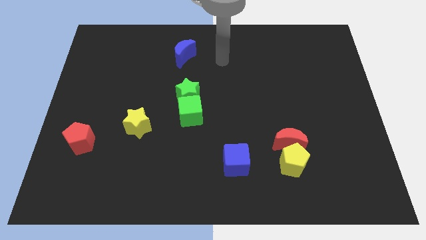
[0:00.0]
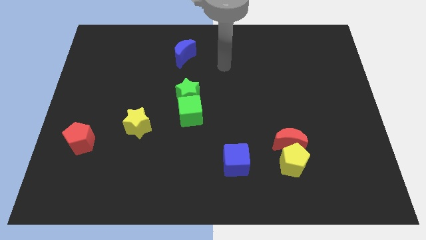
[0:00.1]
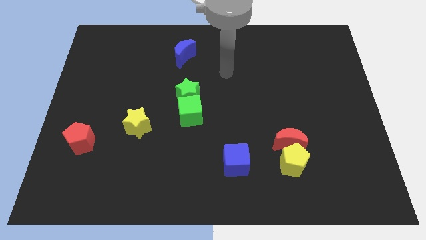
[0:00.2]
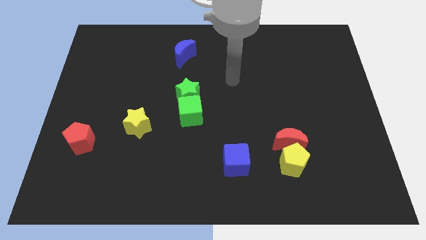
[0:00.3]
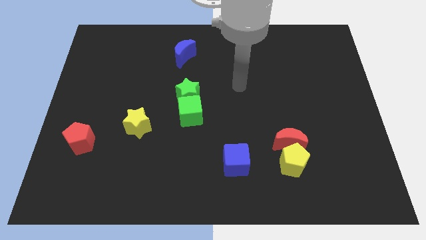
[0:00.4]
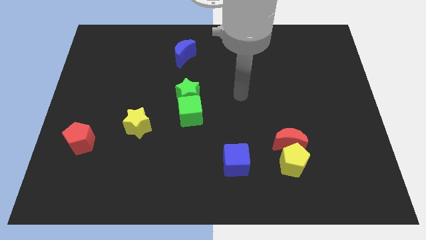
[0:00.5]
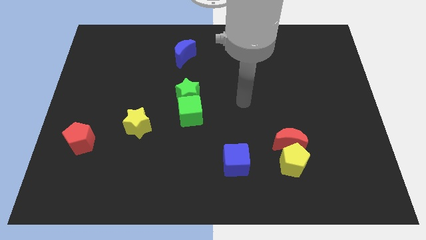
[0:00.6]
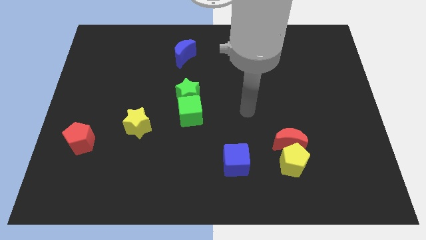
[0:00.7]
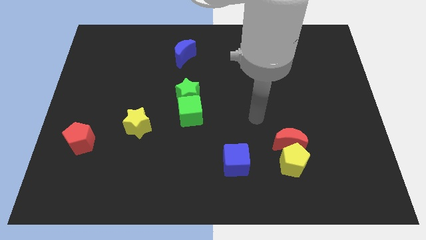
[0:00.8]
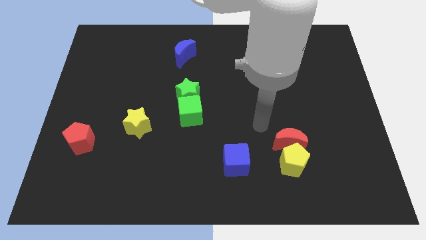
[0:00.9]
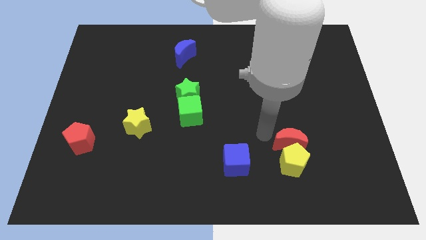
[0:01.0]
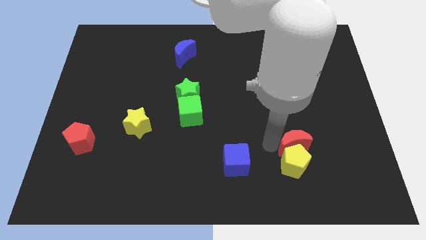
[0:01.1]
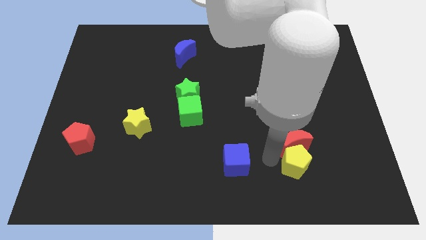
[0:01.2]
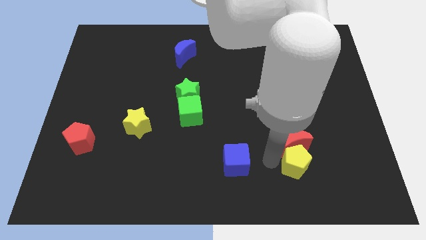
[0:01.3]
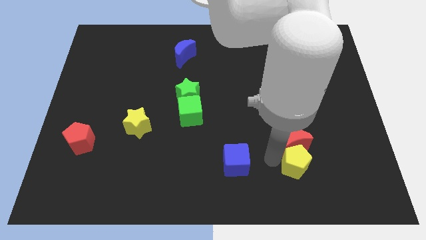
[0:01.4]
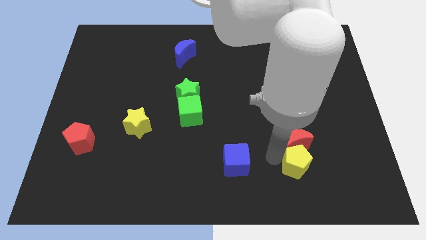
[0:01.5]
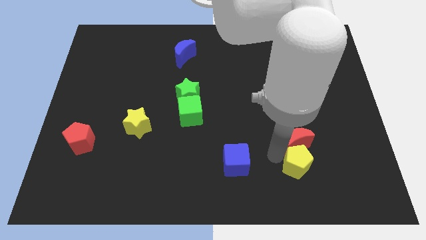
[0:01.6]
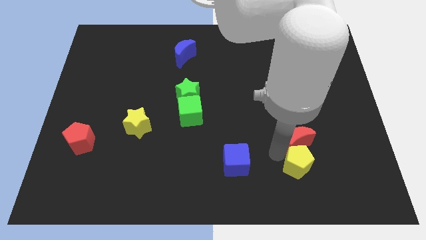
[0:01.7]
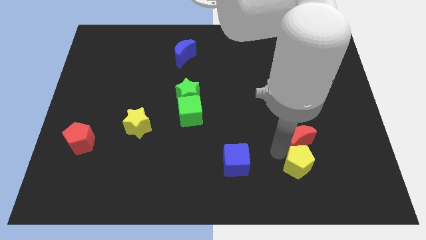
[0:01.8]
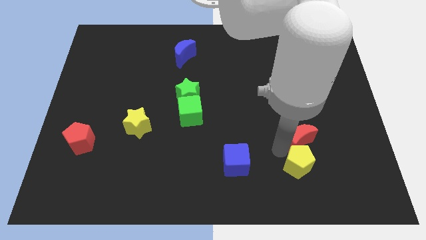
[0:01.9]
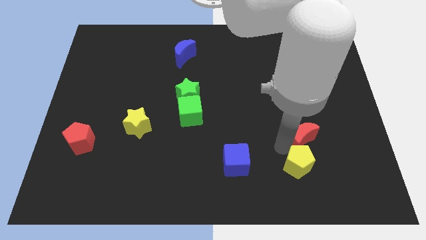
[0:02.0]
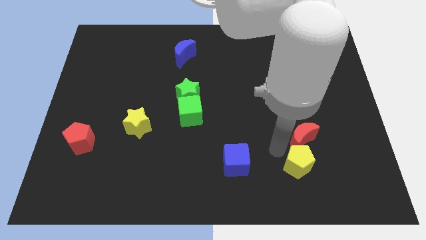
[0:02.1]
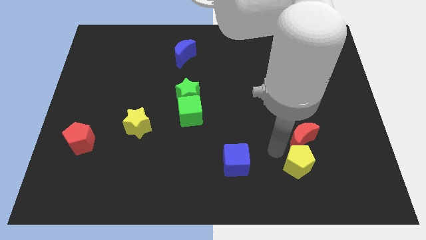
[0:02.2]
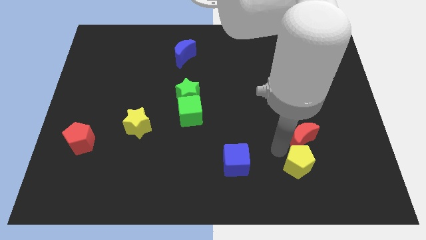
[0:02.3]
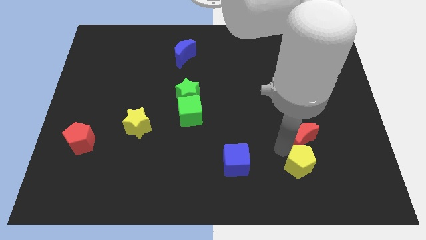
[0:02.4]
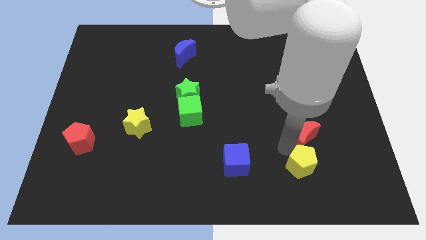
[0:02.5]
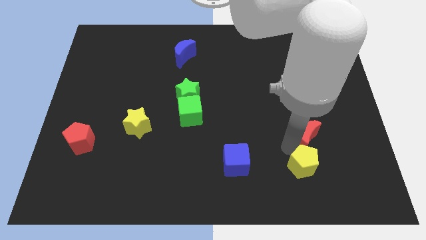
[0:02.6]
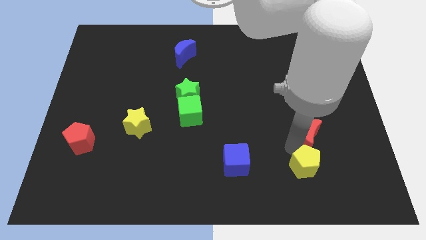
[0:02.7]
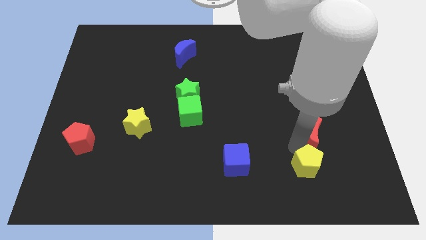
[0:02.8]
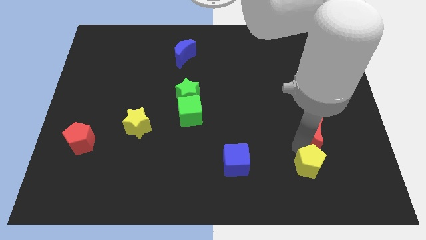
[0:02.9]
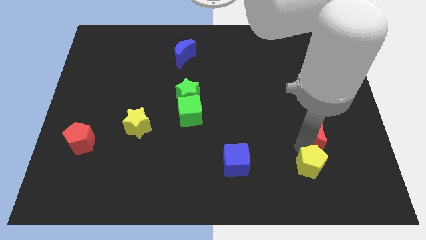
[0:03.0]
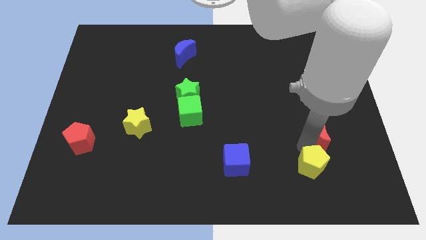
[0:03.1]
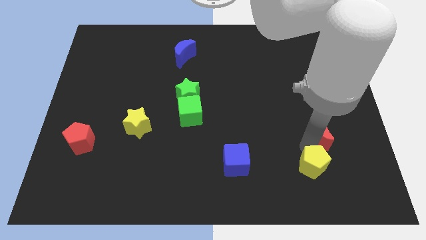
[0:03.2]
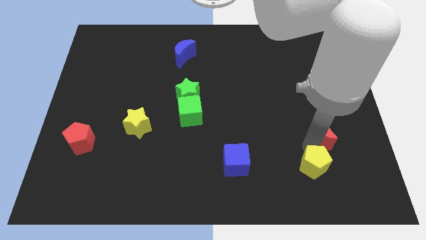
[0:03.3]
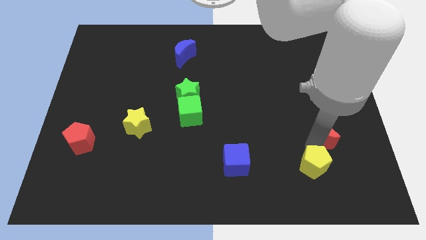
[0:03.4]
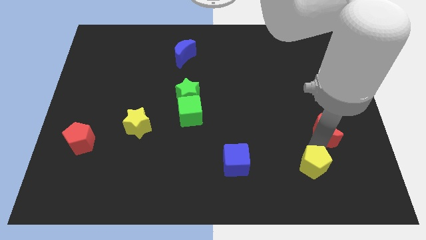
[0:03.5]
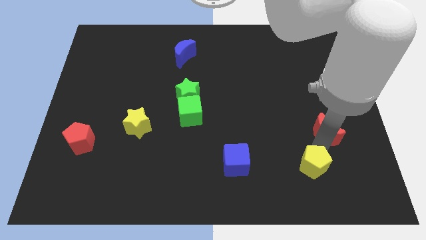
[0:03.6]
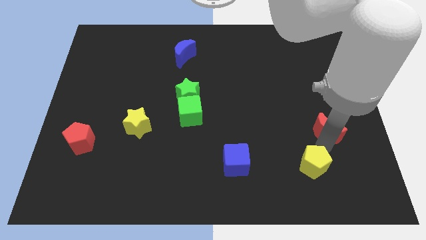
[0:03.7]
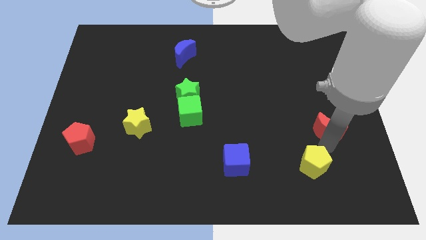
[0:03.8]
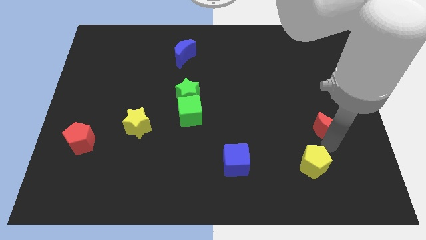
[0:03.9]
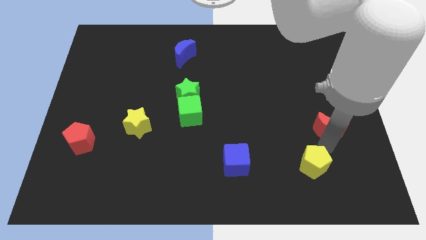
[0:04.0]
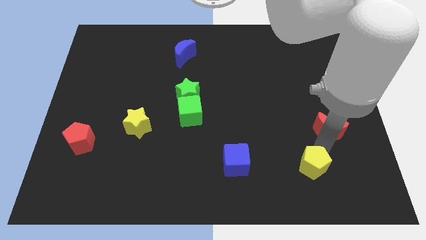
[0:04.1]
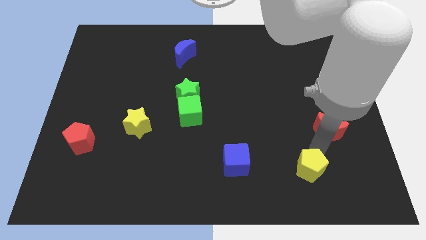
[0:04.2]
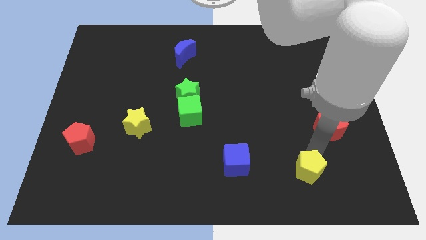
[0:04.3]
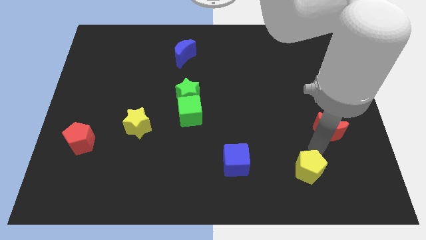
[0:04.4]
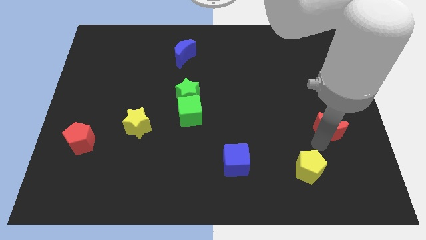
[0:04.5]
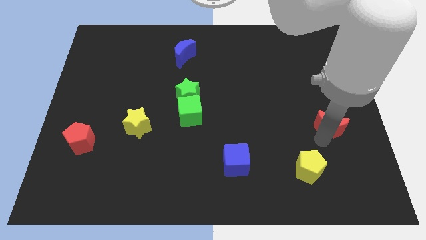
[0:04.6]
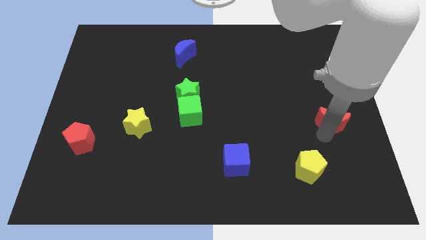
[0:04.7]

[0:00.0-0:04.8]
push the red moon to the right side

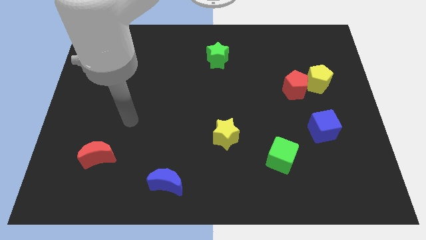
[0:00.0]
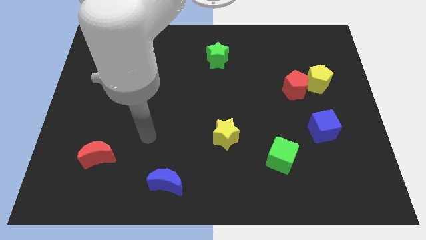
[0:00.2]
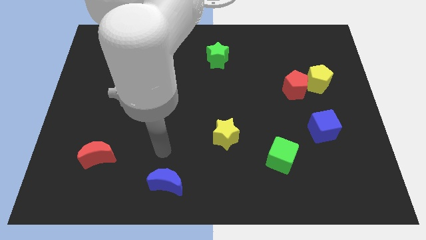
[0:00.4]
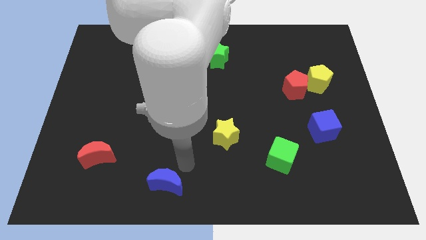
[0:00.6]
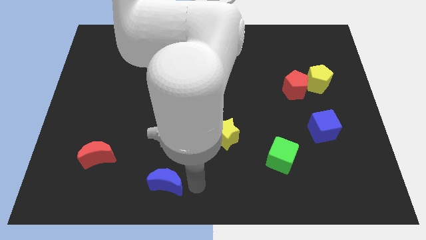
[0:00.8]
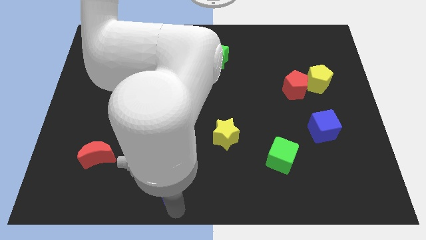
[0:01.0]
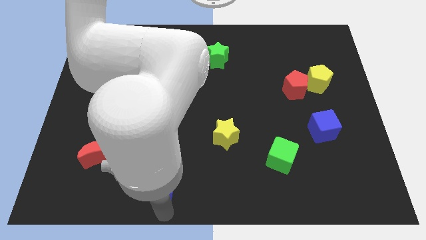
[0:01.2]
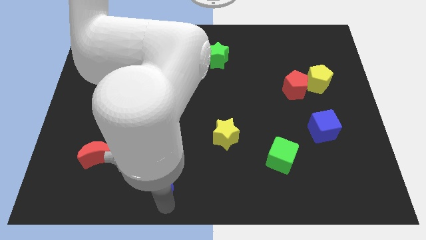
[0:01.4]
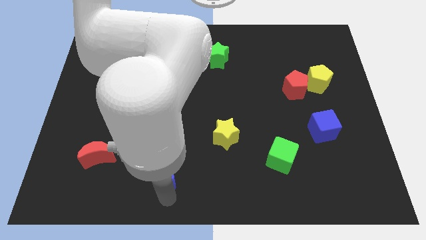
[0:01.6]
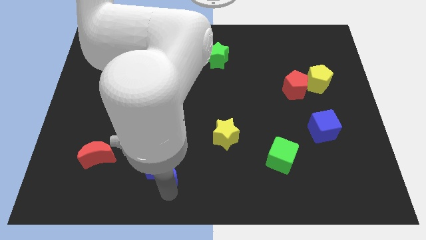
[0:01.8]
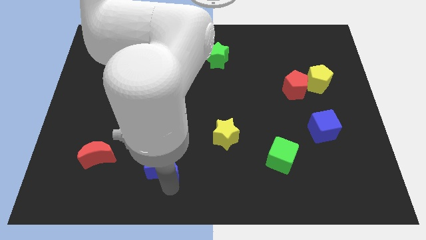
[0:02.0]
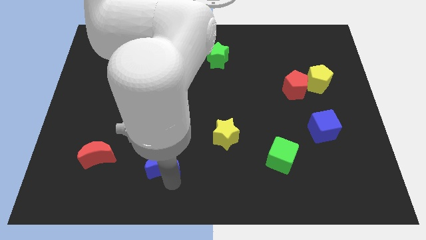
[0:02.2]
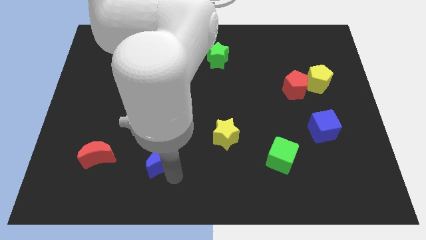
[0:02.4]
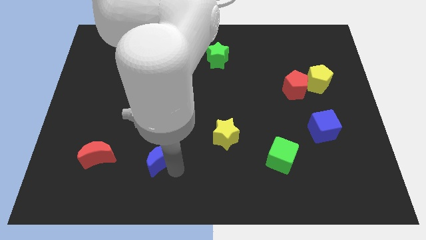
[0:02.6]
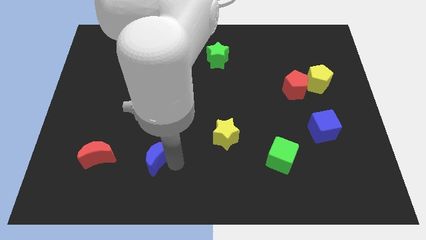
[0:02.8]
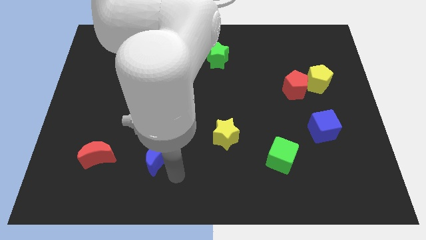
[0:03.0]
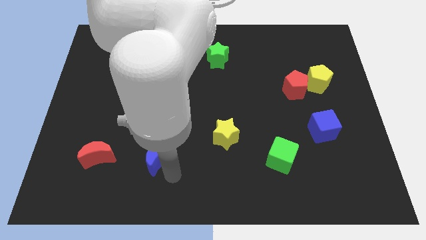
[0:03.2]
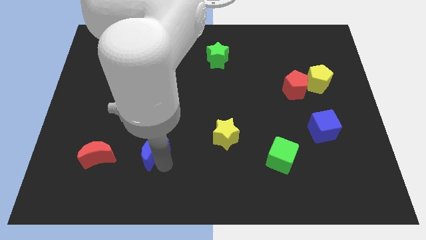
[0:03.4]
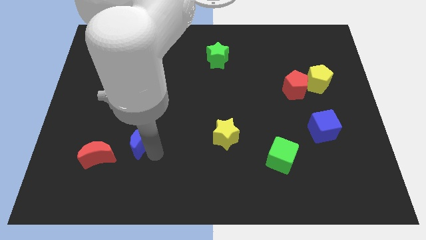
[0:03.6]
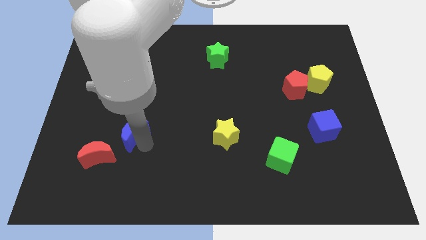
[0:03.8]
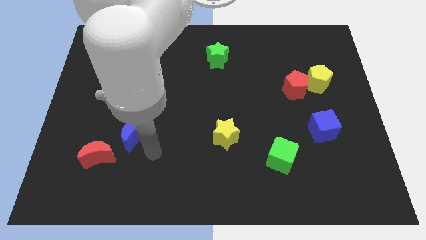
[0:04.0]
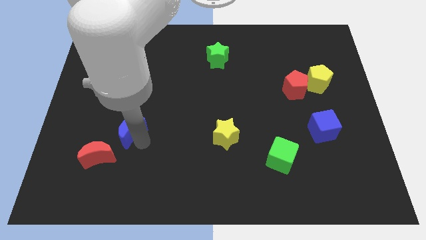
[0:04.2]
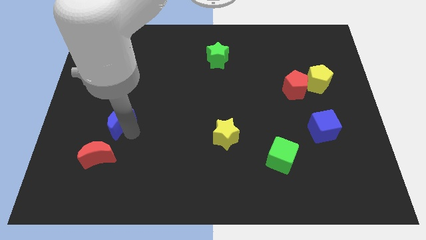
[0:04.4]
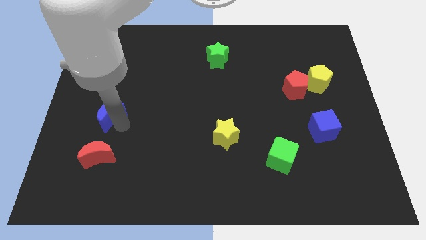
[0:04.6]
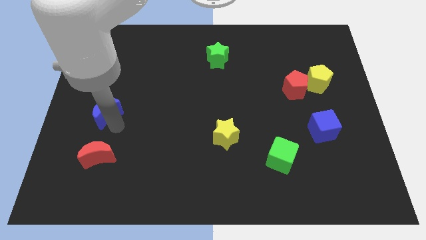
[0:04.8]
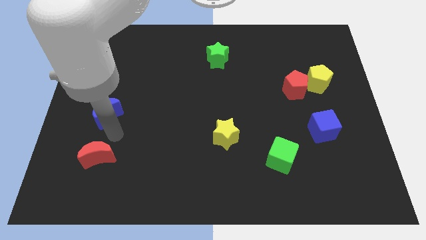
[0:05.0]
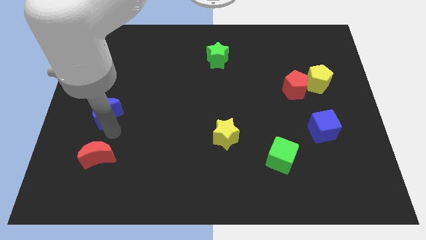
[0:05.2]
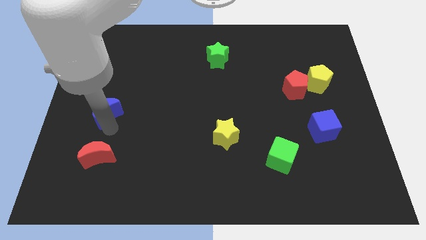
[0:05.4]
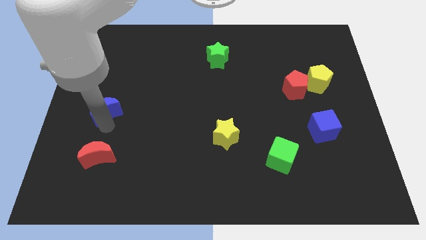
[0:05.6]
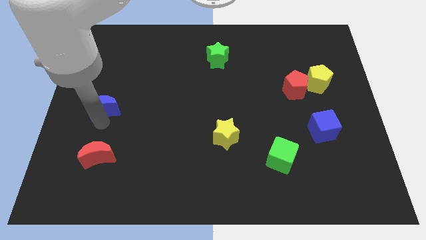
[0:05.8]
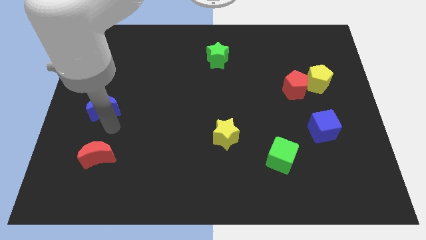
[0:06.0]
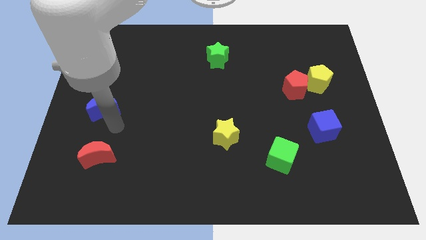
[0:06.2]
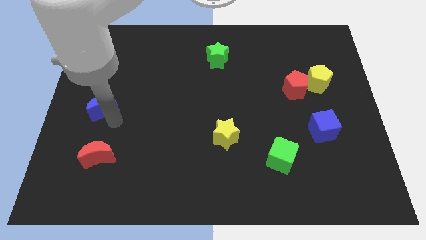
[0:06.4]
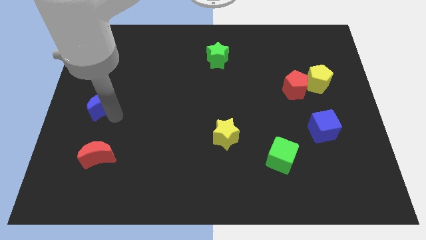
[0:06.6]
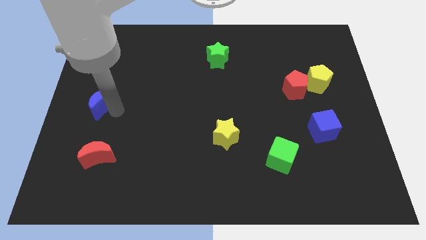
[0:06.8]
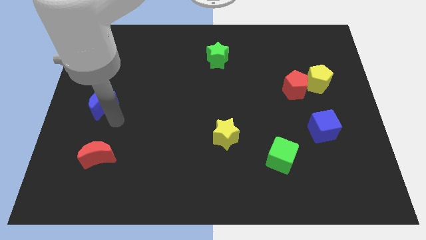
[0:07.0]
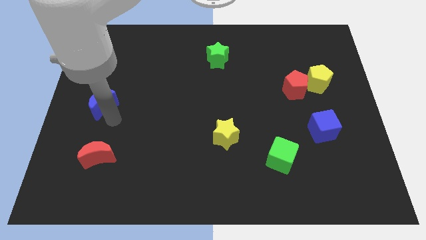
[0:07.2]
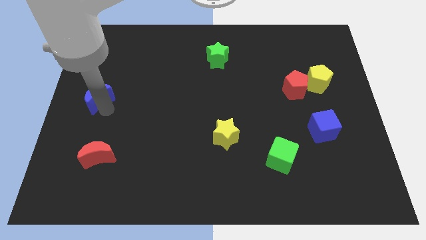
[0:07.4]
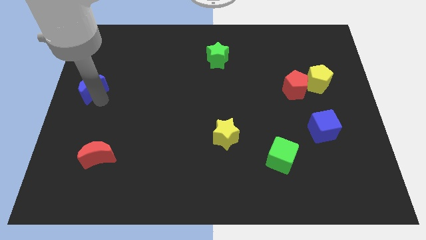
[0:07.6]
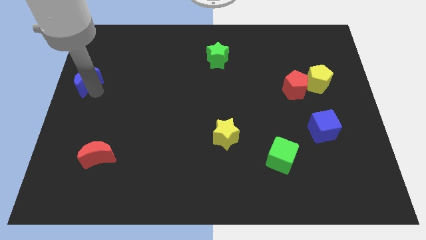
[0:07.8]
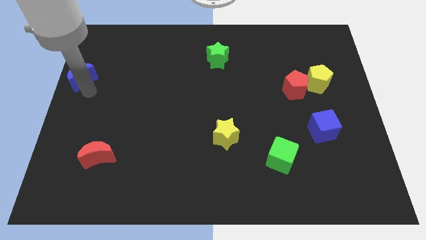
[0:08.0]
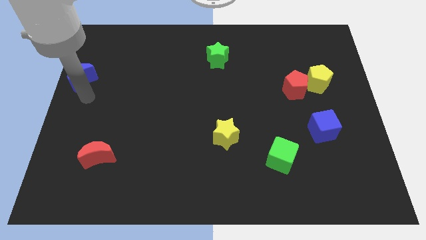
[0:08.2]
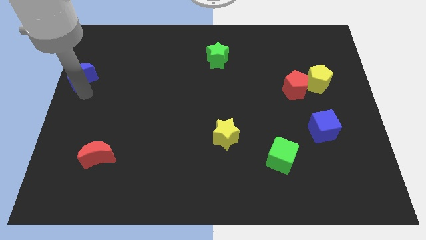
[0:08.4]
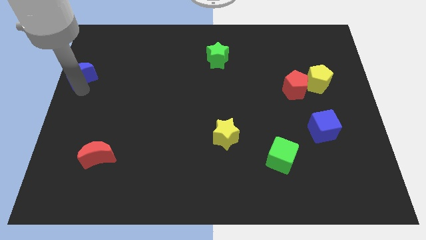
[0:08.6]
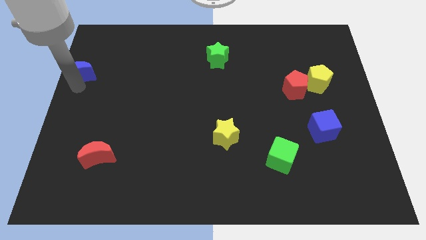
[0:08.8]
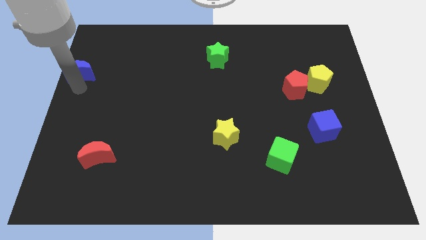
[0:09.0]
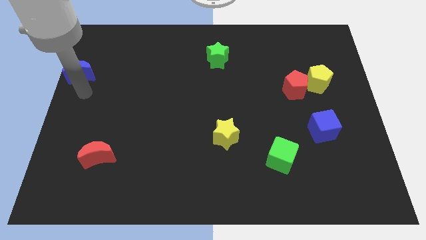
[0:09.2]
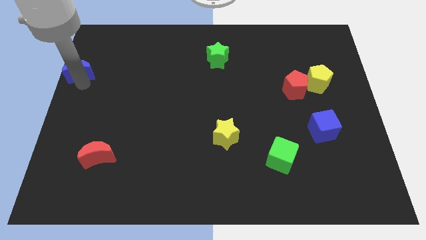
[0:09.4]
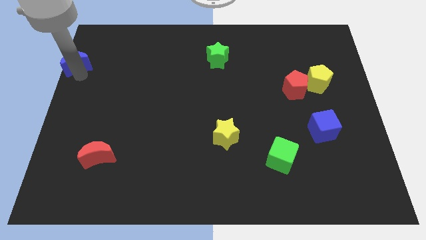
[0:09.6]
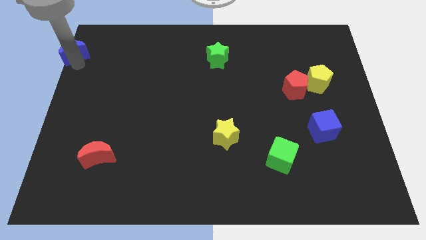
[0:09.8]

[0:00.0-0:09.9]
slide the blue moon to the top left corner
